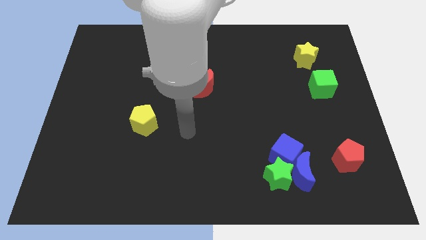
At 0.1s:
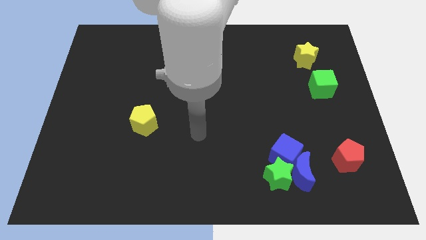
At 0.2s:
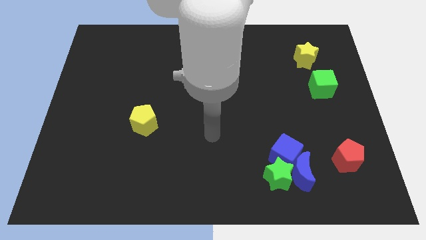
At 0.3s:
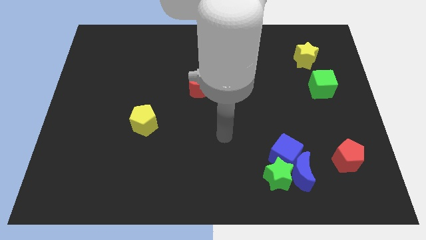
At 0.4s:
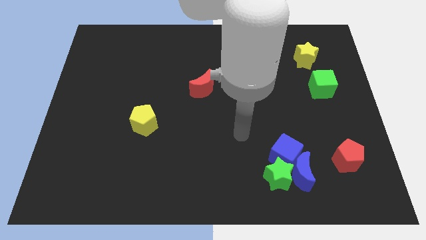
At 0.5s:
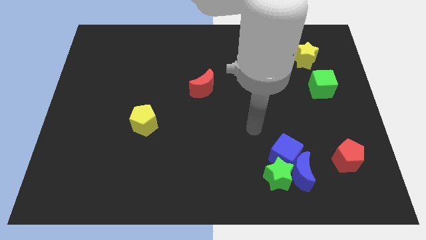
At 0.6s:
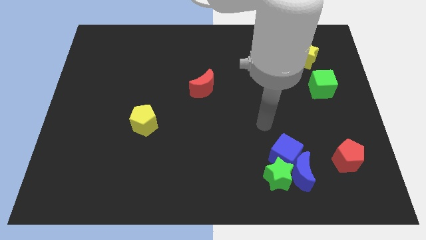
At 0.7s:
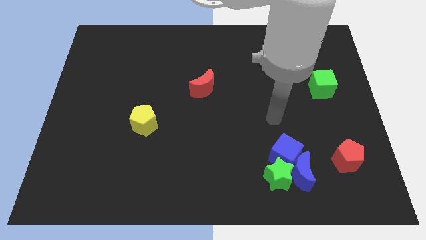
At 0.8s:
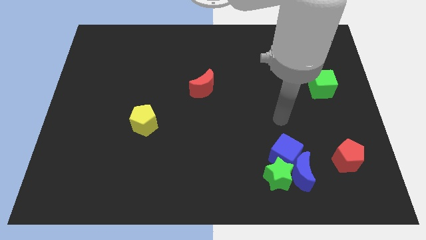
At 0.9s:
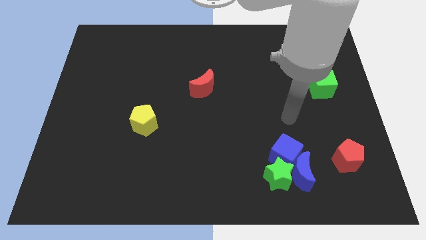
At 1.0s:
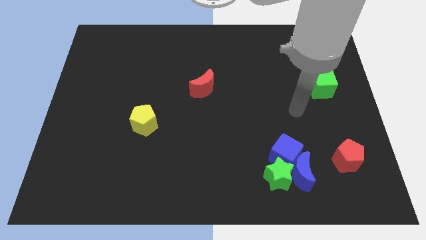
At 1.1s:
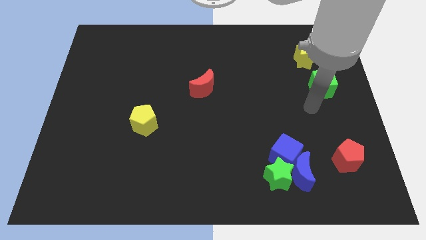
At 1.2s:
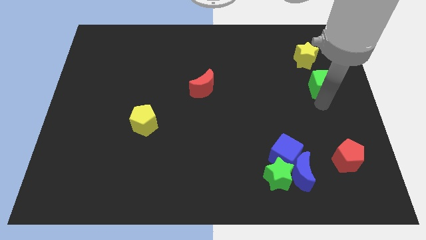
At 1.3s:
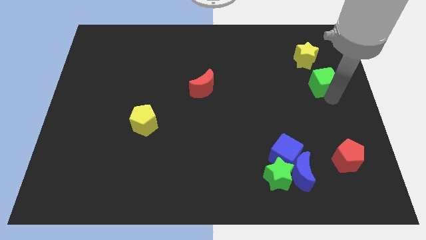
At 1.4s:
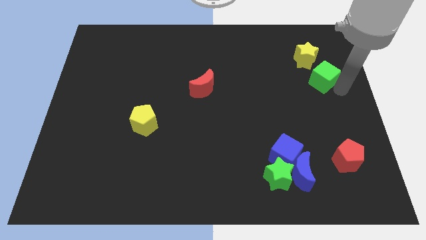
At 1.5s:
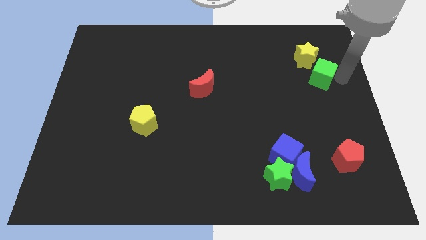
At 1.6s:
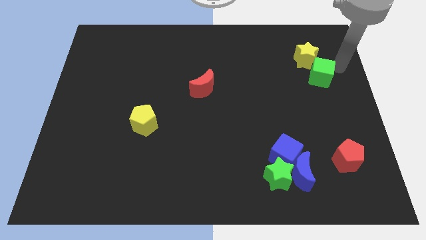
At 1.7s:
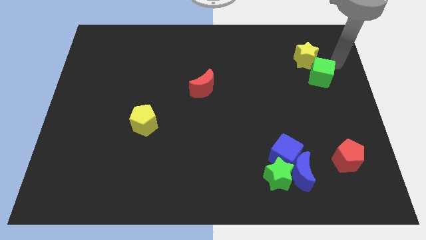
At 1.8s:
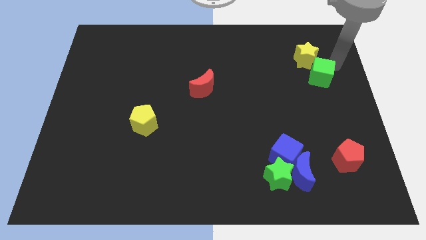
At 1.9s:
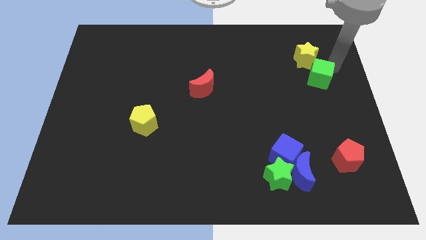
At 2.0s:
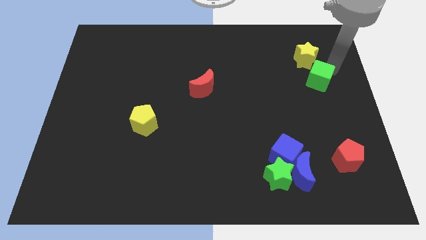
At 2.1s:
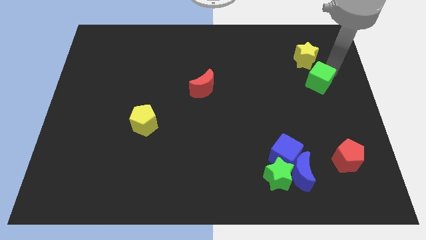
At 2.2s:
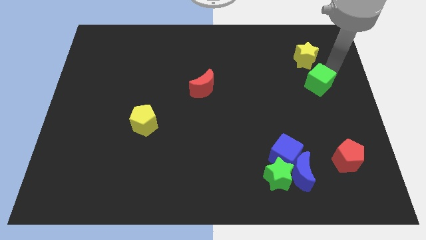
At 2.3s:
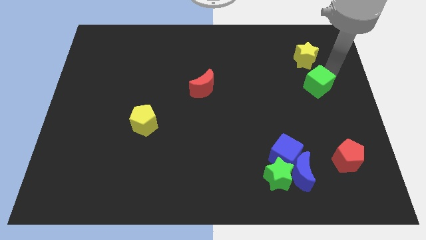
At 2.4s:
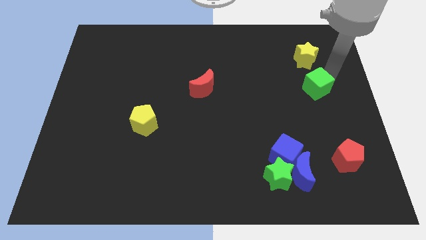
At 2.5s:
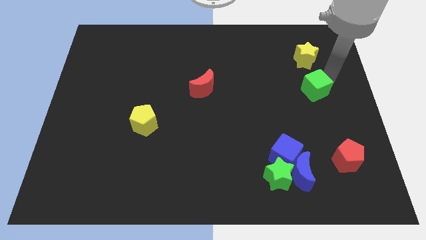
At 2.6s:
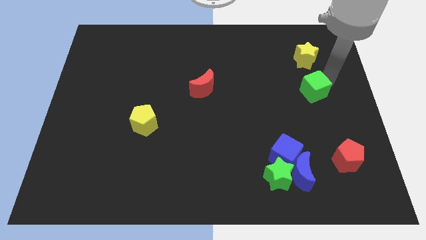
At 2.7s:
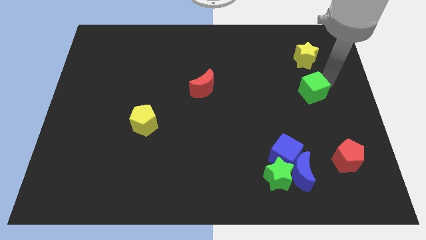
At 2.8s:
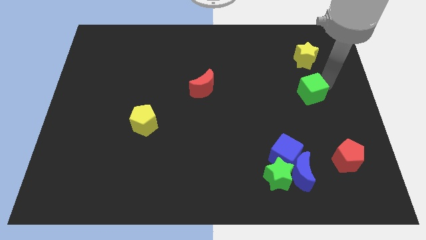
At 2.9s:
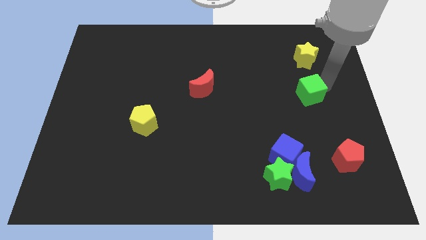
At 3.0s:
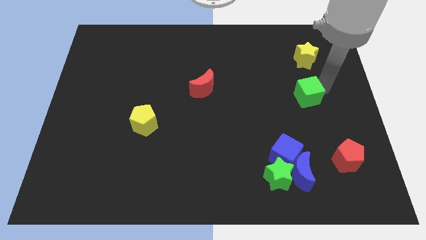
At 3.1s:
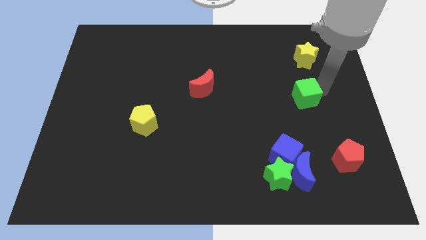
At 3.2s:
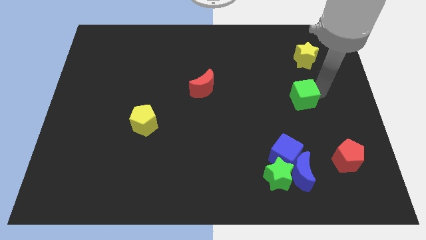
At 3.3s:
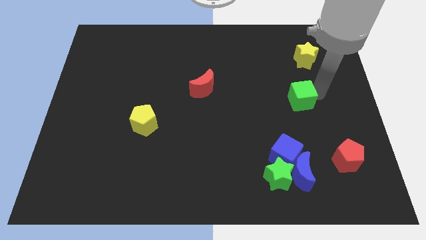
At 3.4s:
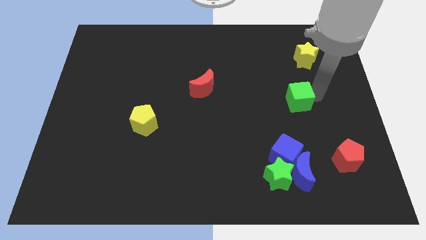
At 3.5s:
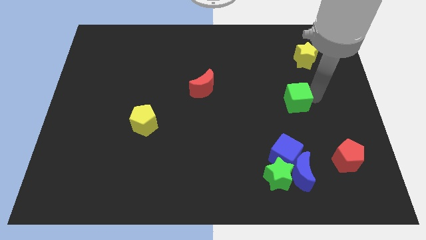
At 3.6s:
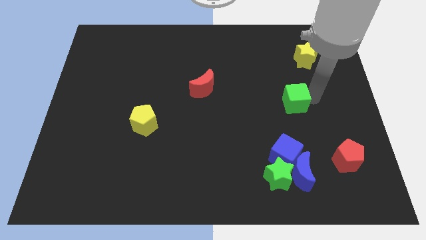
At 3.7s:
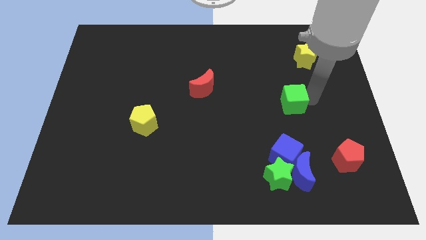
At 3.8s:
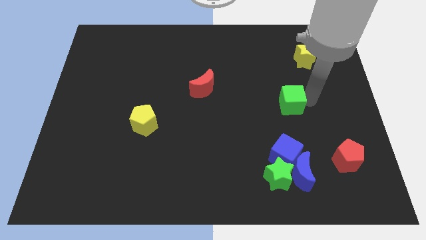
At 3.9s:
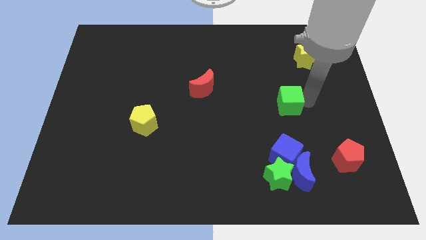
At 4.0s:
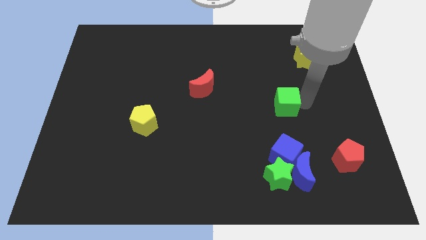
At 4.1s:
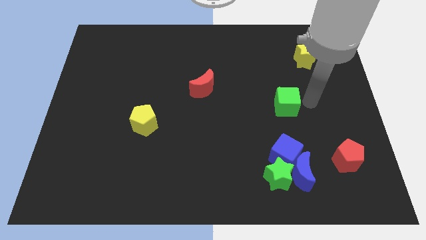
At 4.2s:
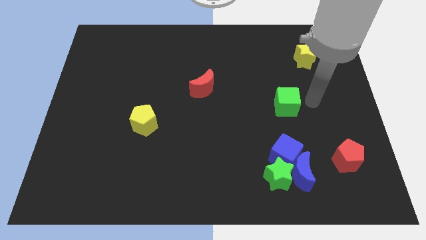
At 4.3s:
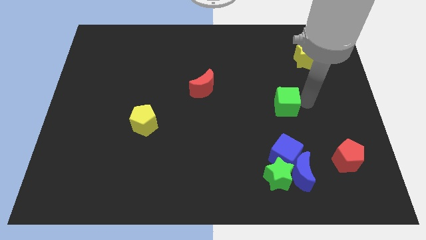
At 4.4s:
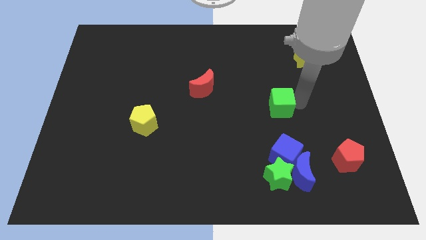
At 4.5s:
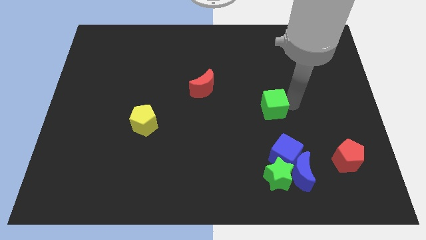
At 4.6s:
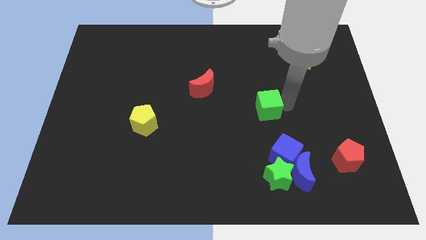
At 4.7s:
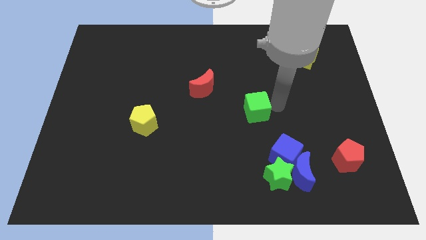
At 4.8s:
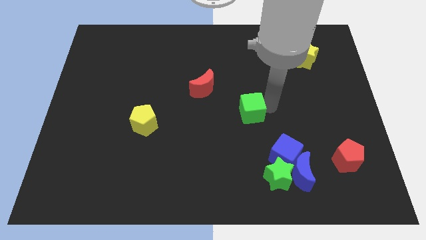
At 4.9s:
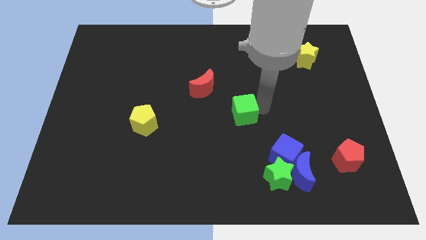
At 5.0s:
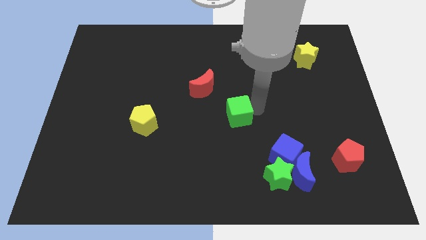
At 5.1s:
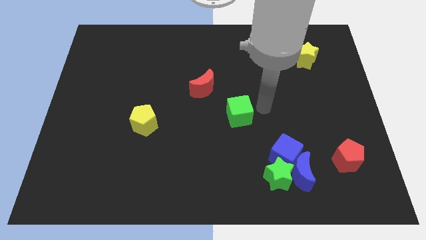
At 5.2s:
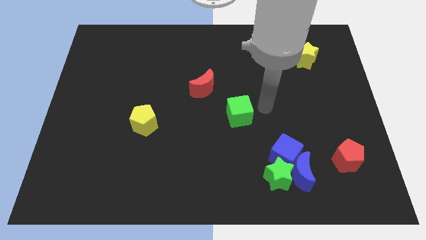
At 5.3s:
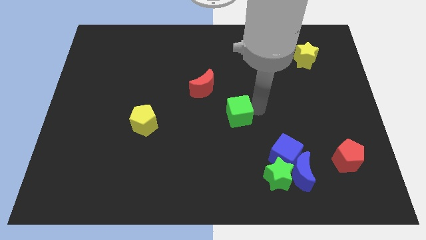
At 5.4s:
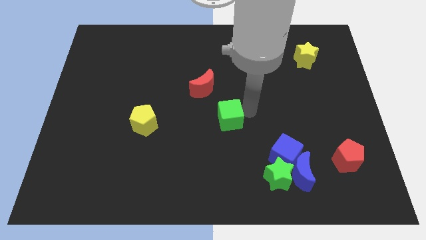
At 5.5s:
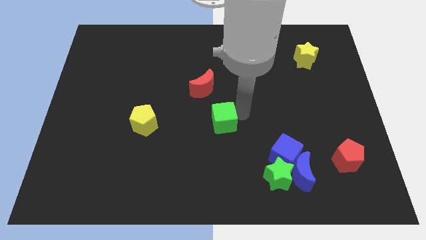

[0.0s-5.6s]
put the green cube below the red moon

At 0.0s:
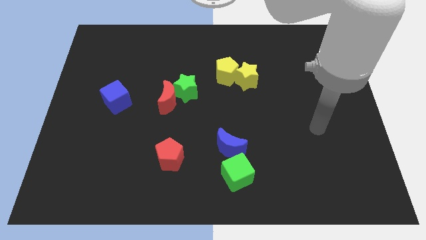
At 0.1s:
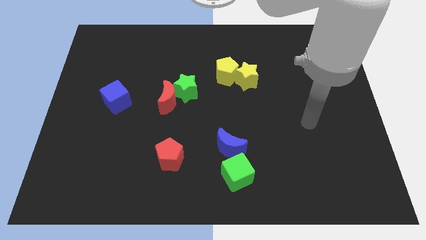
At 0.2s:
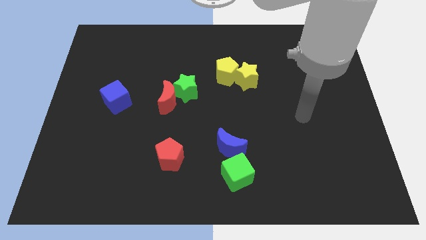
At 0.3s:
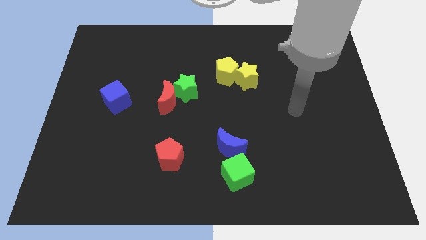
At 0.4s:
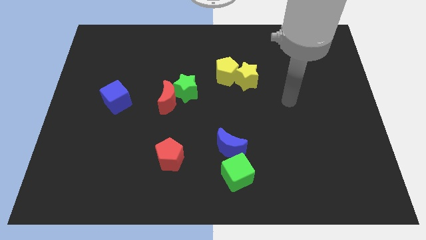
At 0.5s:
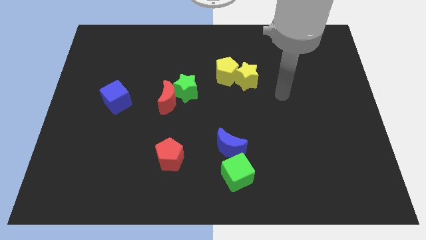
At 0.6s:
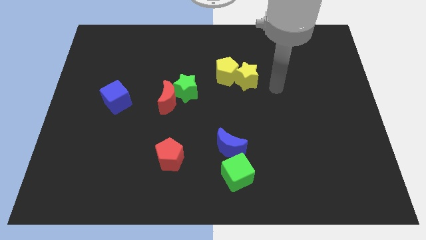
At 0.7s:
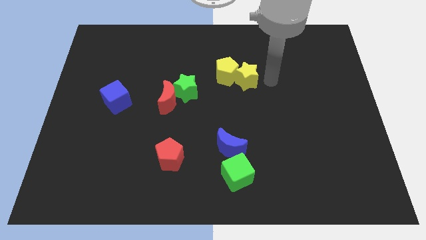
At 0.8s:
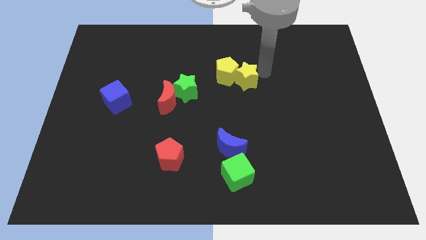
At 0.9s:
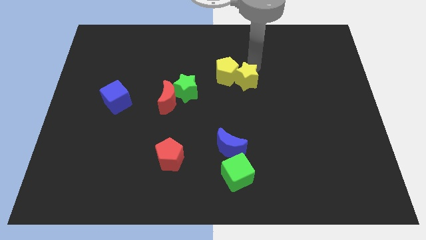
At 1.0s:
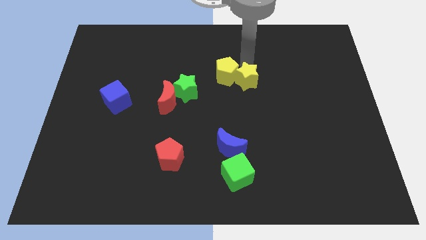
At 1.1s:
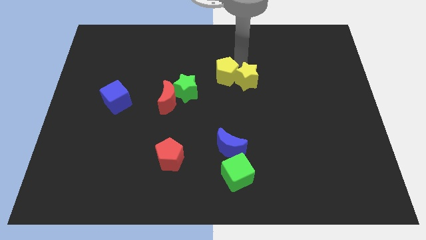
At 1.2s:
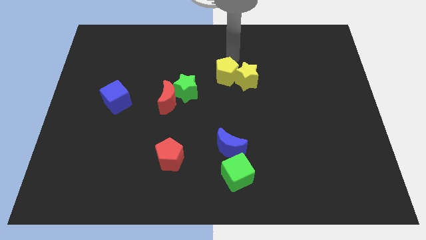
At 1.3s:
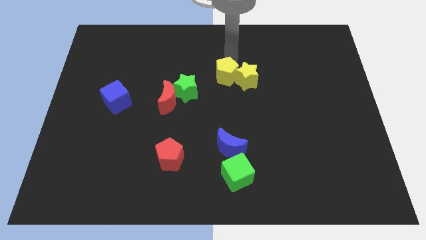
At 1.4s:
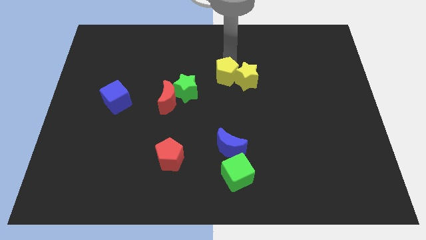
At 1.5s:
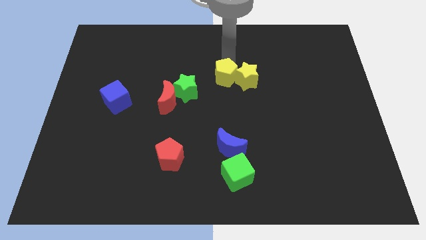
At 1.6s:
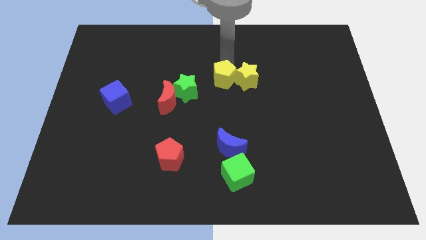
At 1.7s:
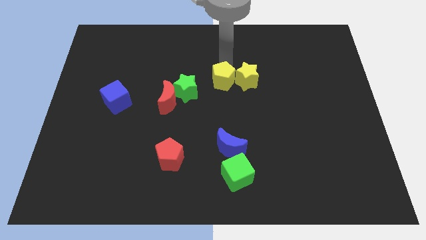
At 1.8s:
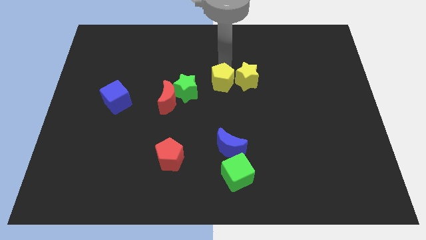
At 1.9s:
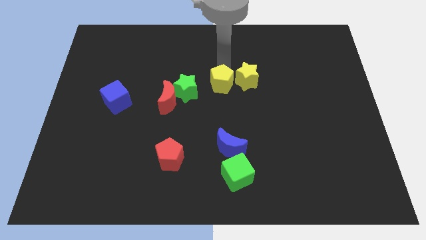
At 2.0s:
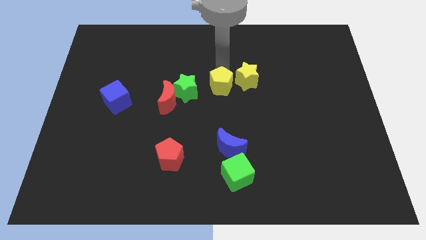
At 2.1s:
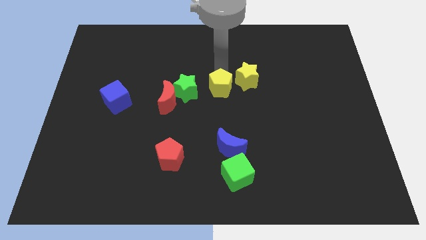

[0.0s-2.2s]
slide the yellow pentagon just right of the red moon
